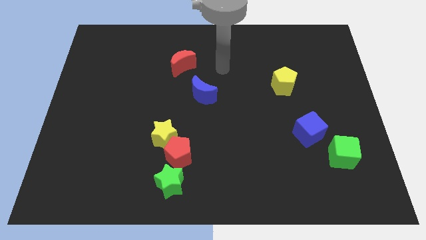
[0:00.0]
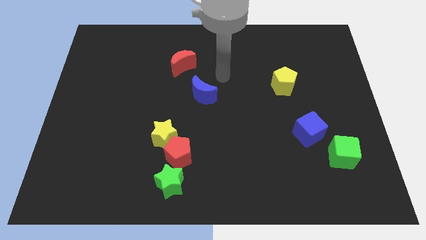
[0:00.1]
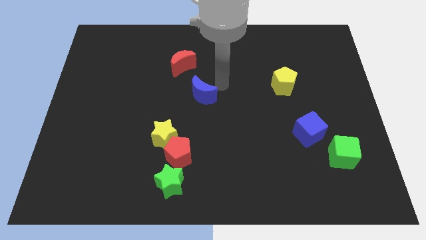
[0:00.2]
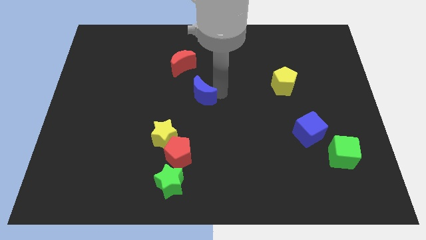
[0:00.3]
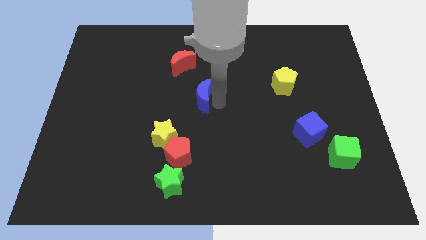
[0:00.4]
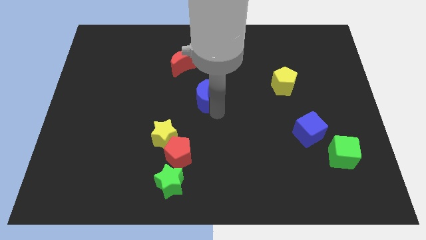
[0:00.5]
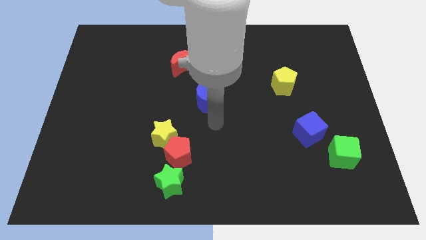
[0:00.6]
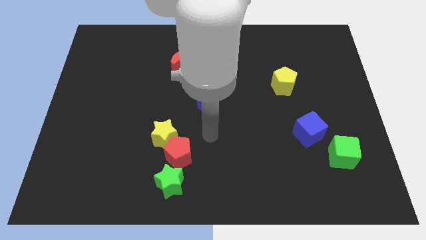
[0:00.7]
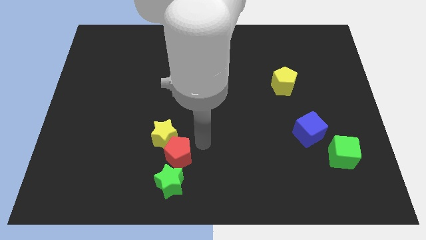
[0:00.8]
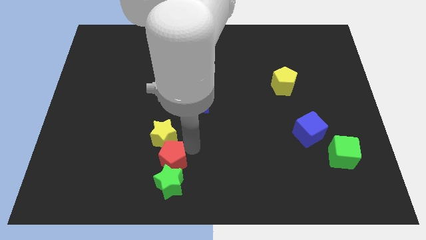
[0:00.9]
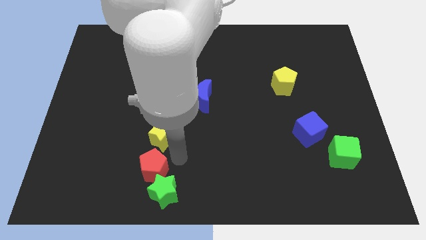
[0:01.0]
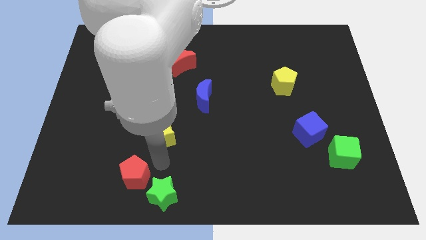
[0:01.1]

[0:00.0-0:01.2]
pull the yellow star apart from the red pentagon

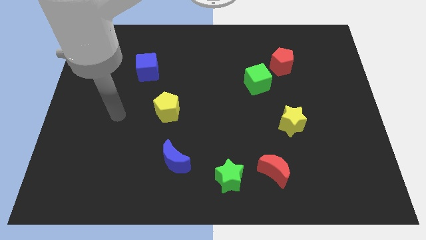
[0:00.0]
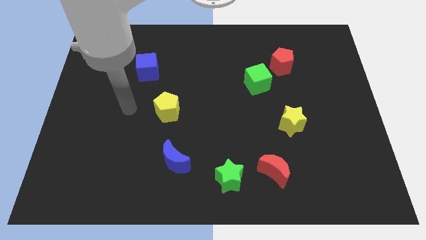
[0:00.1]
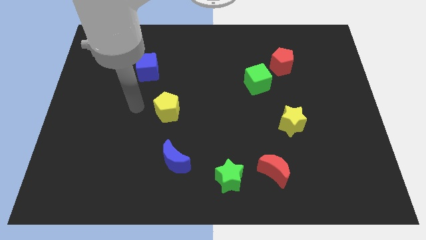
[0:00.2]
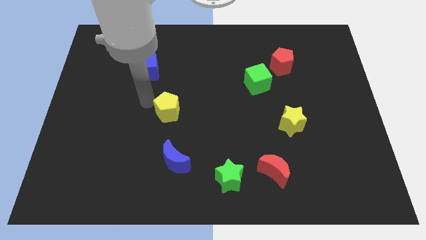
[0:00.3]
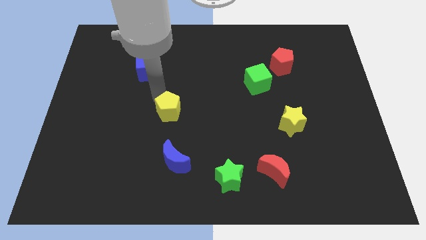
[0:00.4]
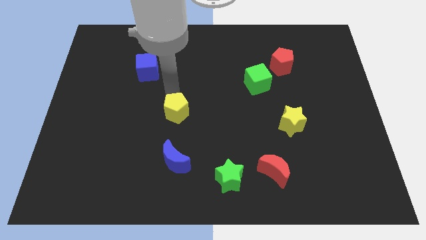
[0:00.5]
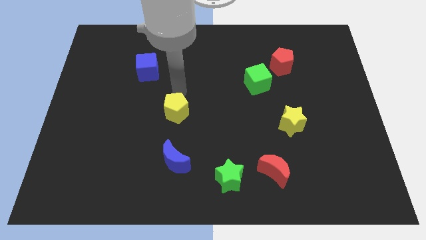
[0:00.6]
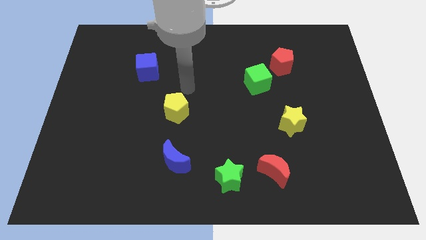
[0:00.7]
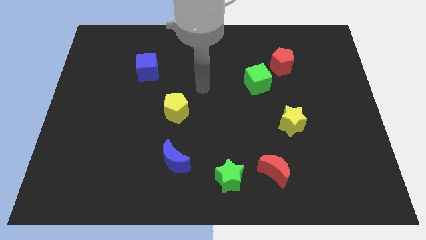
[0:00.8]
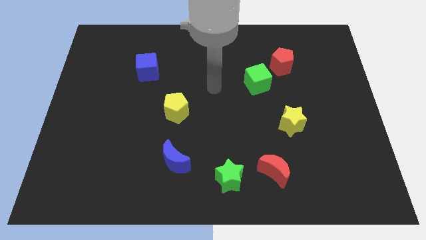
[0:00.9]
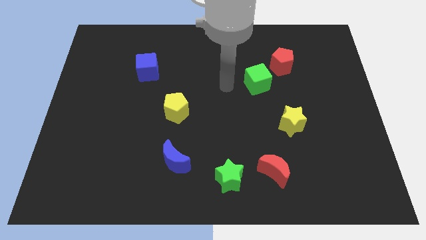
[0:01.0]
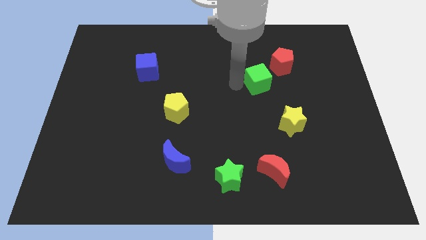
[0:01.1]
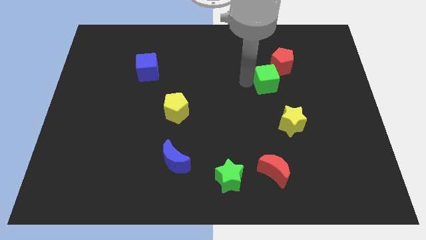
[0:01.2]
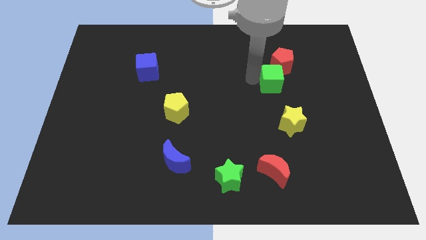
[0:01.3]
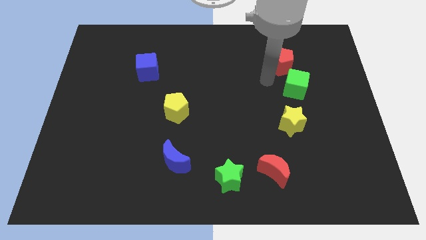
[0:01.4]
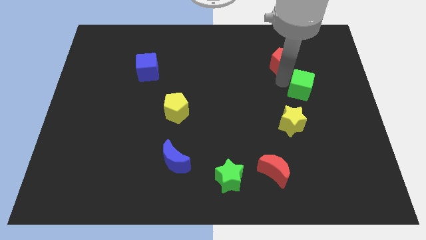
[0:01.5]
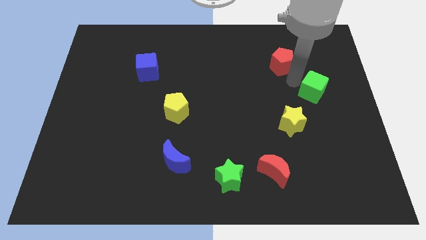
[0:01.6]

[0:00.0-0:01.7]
pull the red pentagon apart from the green cube

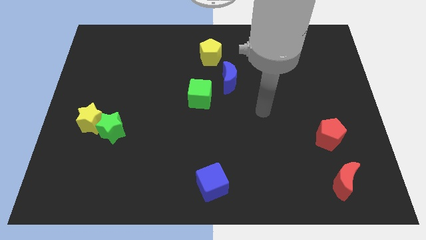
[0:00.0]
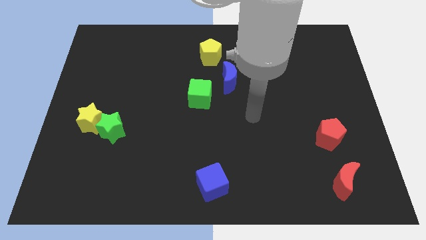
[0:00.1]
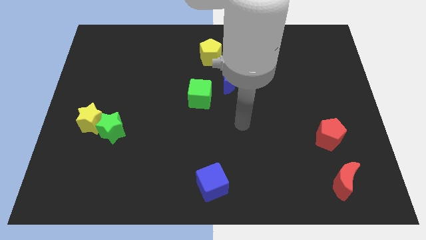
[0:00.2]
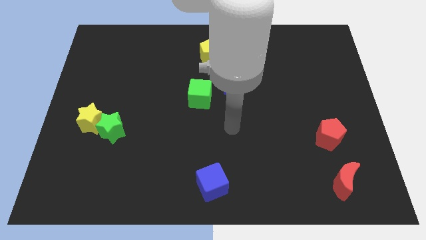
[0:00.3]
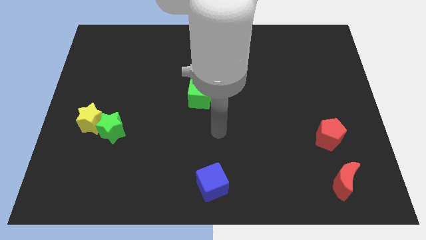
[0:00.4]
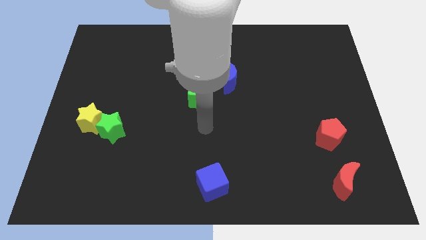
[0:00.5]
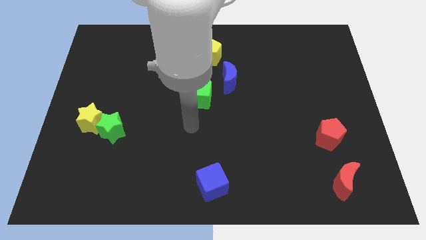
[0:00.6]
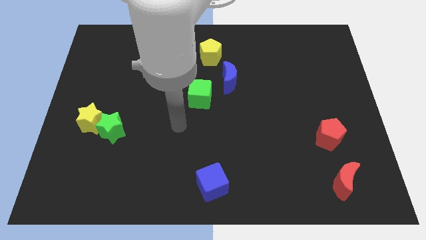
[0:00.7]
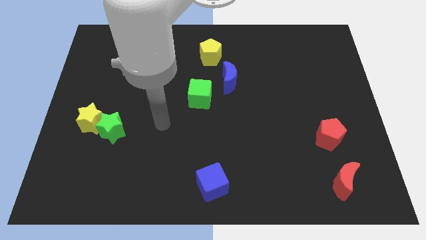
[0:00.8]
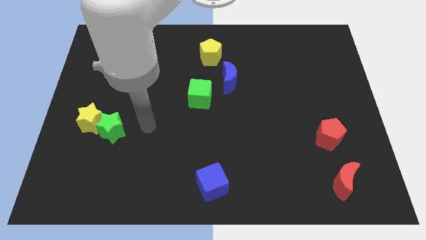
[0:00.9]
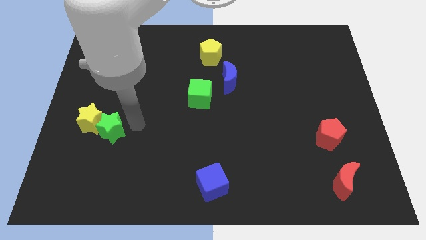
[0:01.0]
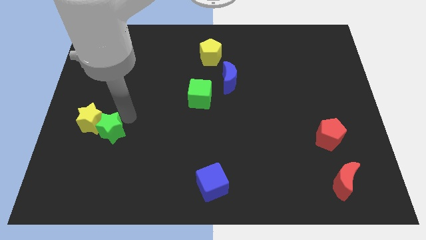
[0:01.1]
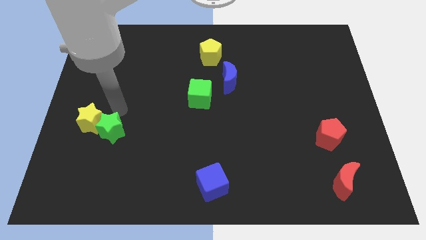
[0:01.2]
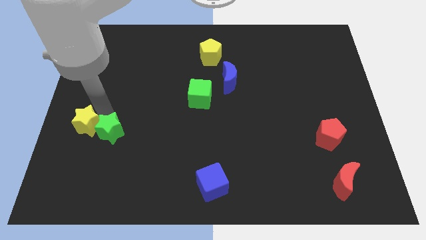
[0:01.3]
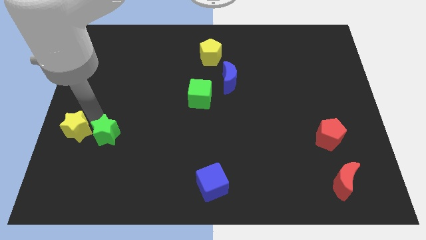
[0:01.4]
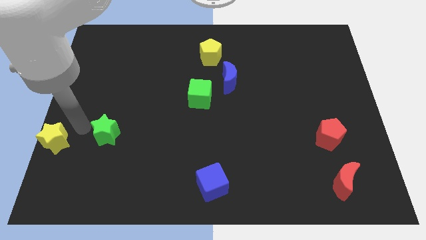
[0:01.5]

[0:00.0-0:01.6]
pull the green star apart from the yellow star

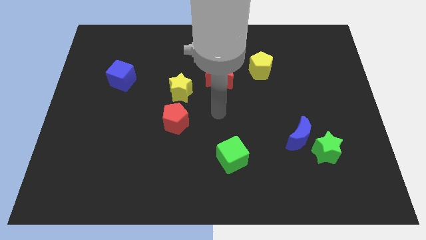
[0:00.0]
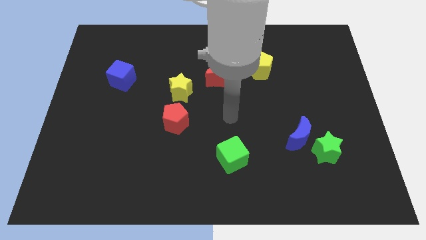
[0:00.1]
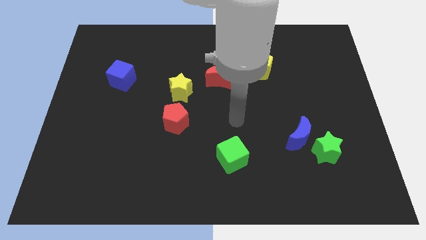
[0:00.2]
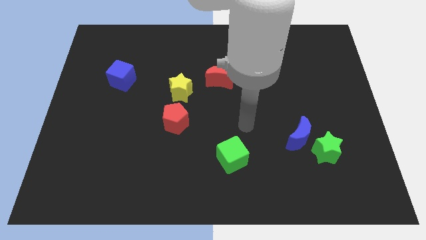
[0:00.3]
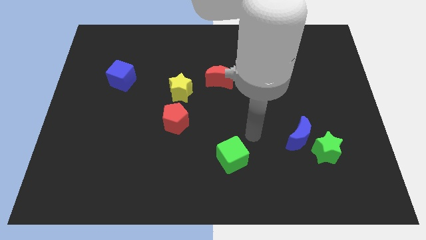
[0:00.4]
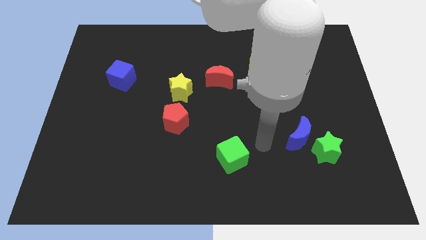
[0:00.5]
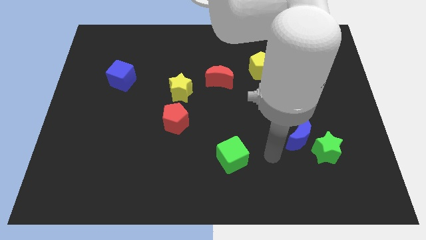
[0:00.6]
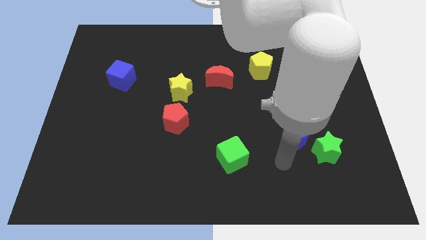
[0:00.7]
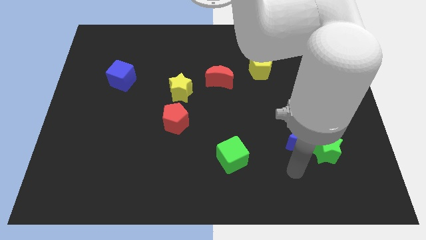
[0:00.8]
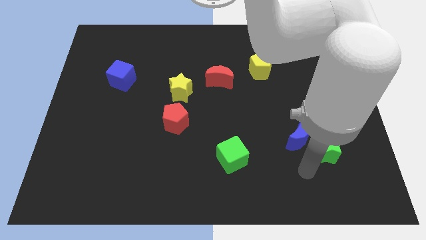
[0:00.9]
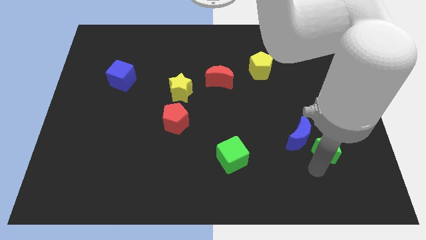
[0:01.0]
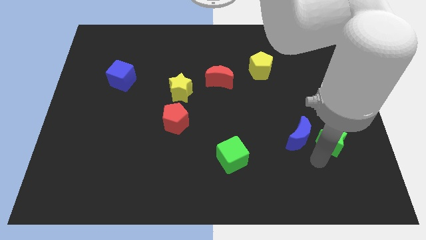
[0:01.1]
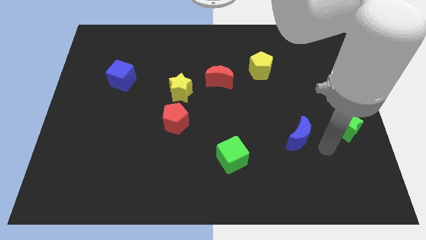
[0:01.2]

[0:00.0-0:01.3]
separate the blue moon from the green star

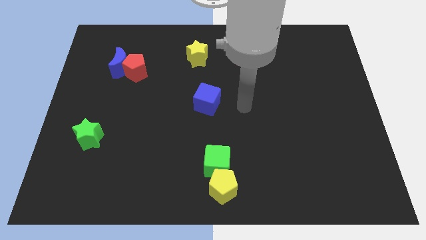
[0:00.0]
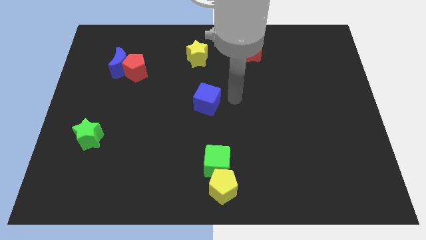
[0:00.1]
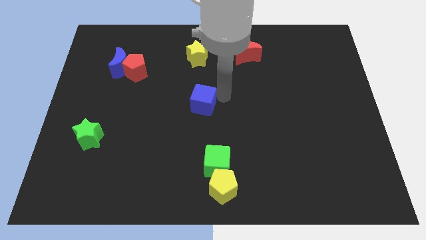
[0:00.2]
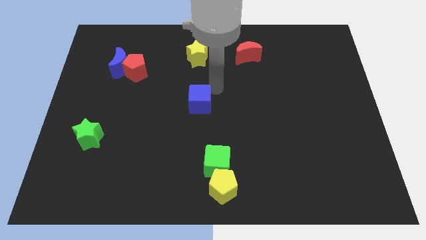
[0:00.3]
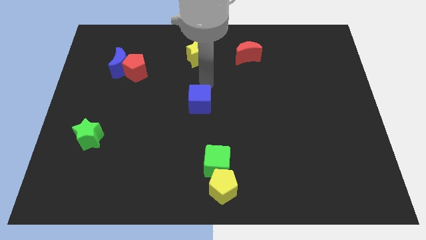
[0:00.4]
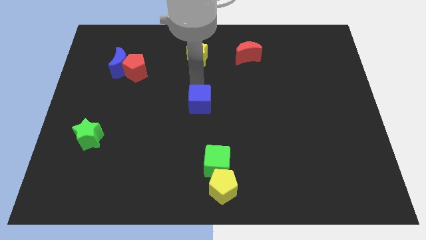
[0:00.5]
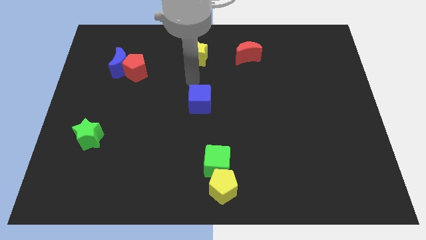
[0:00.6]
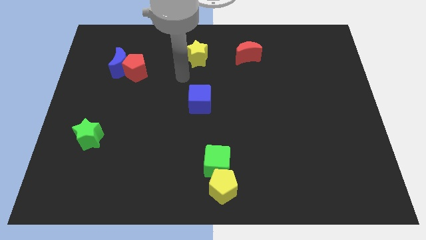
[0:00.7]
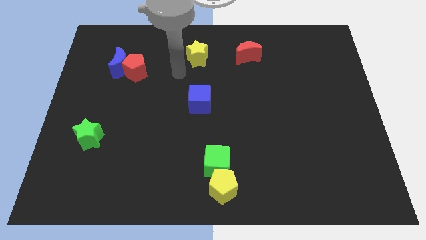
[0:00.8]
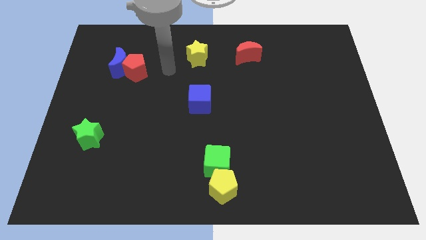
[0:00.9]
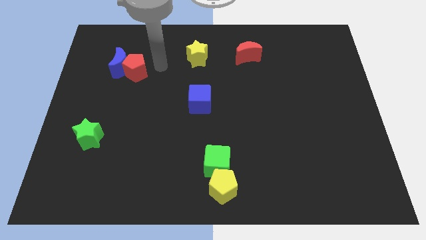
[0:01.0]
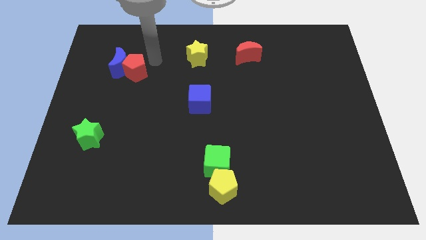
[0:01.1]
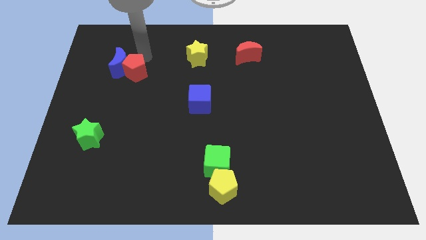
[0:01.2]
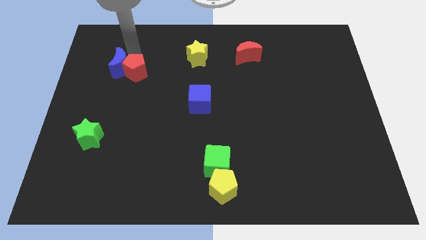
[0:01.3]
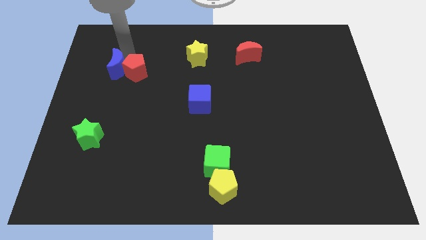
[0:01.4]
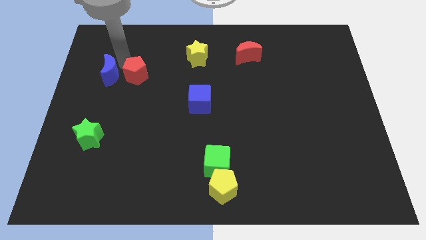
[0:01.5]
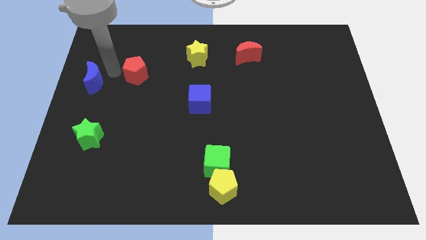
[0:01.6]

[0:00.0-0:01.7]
move the red pentagon away from the blue moon

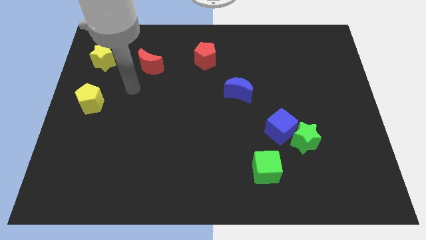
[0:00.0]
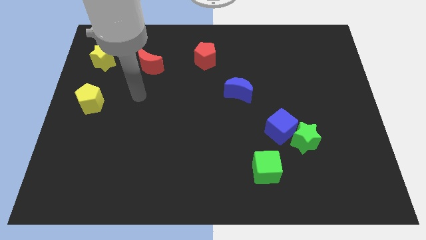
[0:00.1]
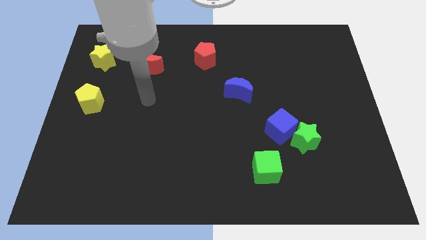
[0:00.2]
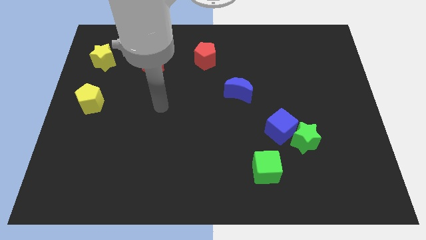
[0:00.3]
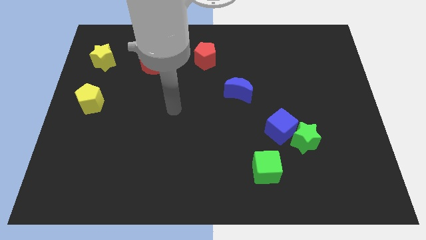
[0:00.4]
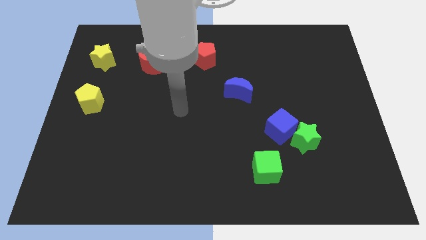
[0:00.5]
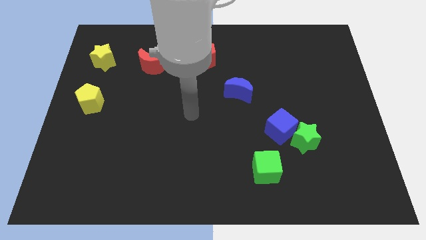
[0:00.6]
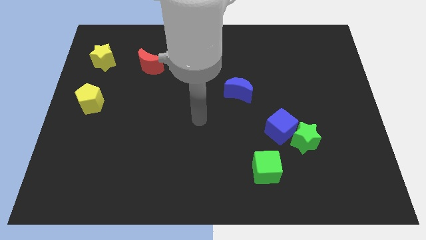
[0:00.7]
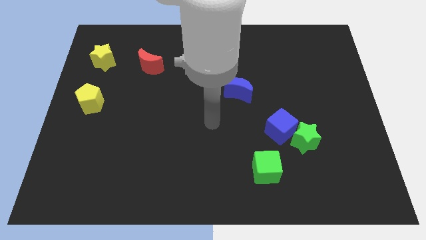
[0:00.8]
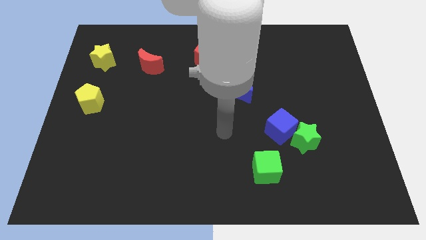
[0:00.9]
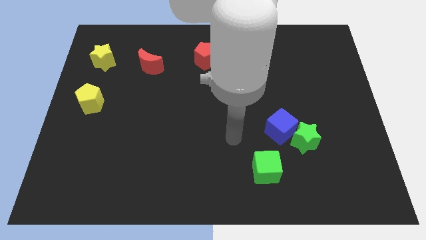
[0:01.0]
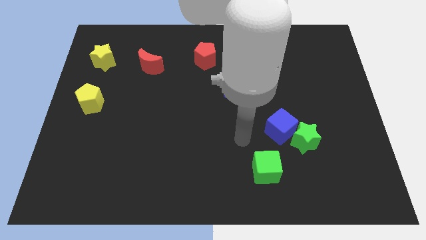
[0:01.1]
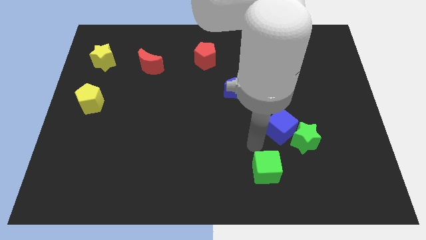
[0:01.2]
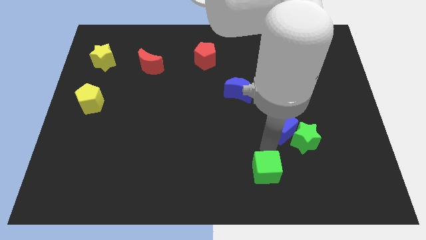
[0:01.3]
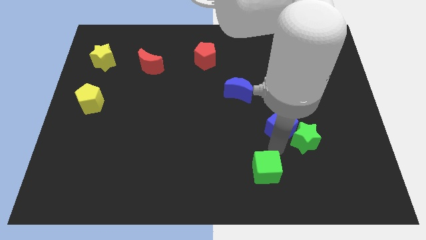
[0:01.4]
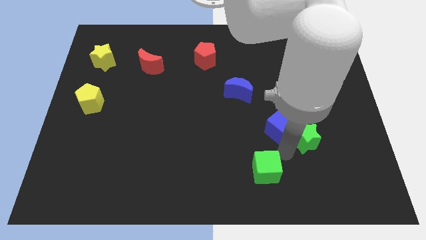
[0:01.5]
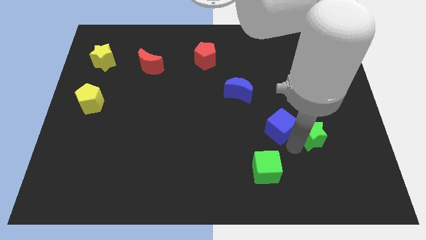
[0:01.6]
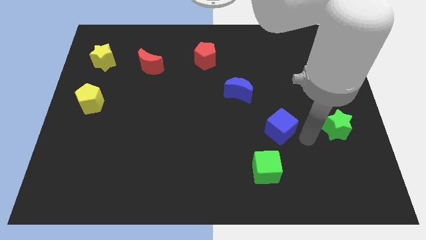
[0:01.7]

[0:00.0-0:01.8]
move the blue cube away from the green star
